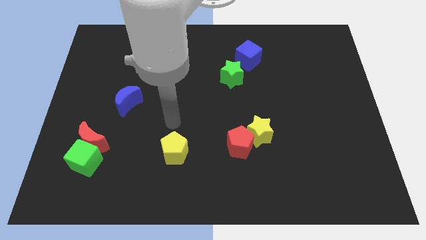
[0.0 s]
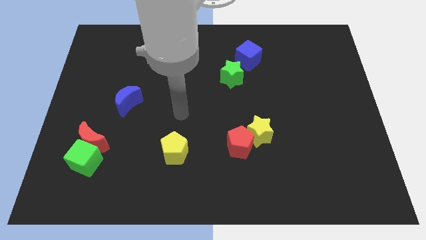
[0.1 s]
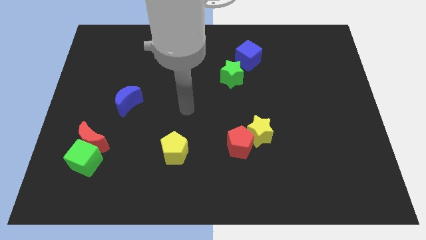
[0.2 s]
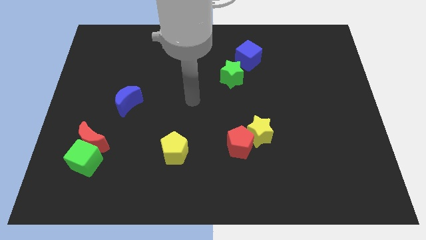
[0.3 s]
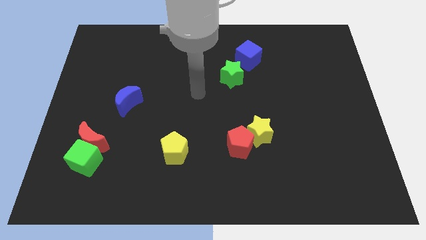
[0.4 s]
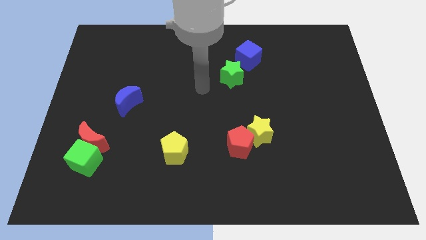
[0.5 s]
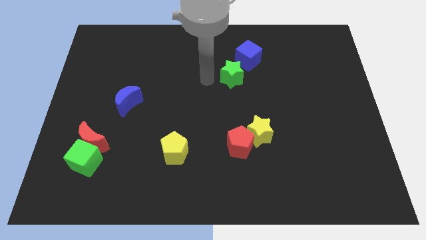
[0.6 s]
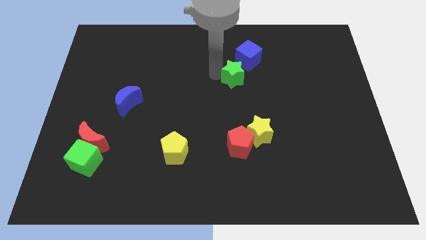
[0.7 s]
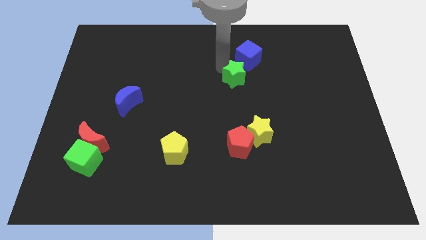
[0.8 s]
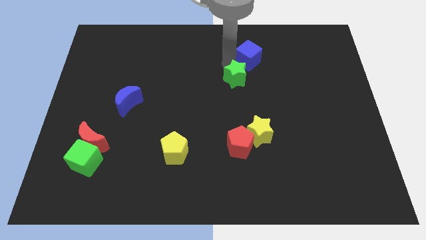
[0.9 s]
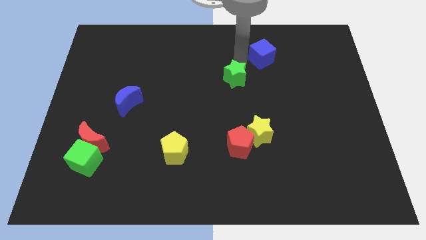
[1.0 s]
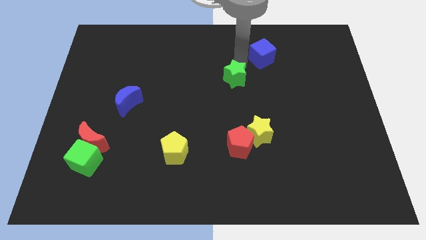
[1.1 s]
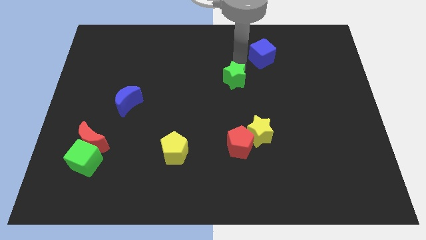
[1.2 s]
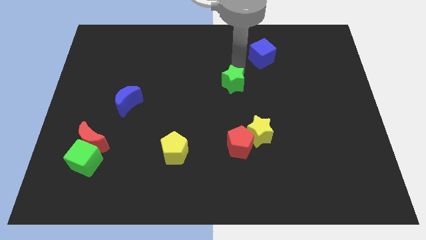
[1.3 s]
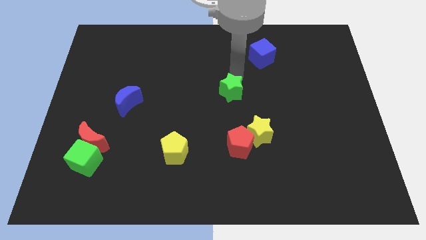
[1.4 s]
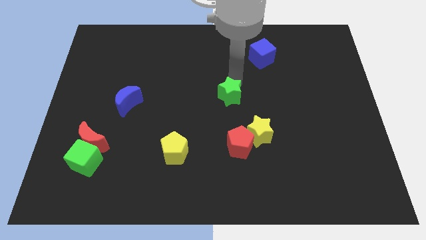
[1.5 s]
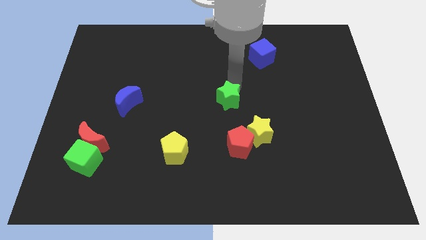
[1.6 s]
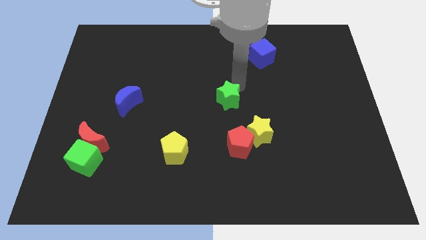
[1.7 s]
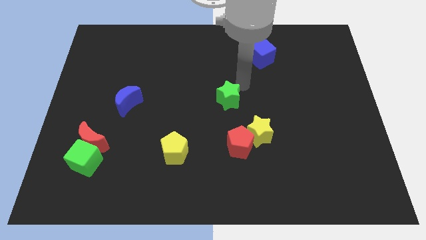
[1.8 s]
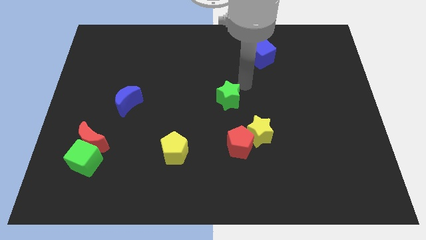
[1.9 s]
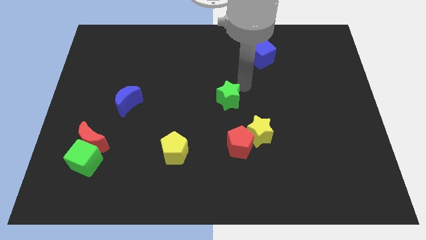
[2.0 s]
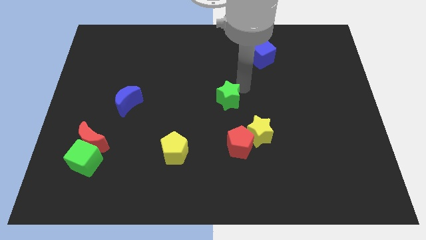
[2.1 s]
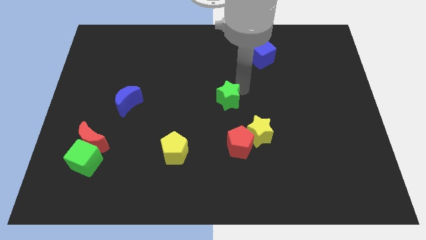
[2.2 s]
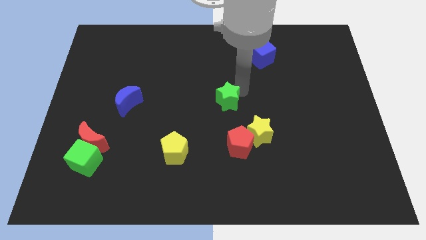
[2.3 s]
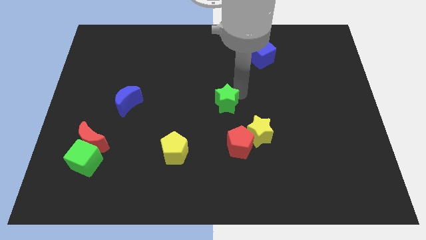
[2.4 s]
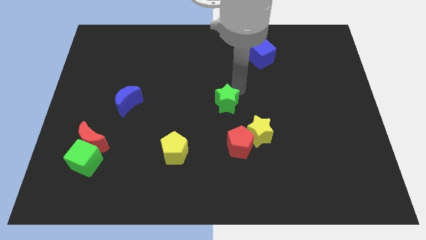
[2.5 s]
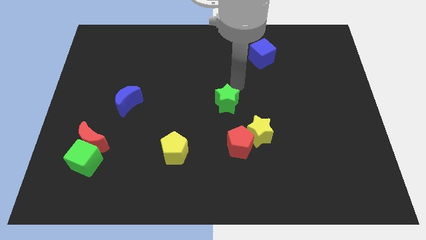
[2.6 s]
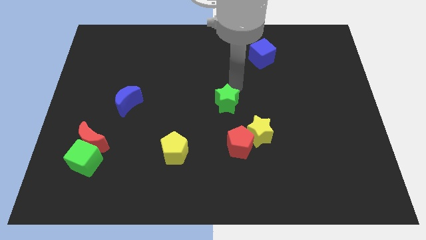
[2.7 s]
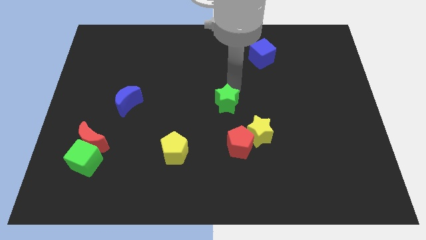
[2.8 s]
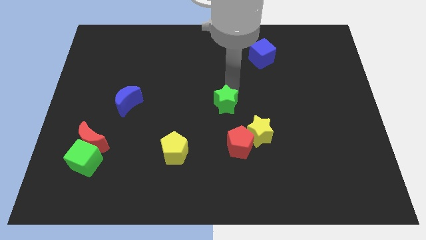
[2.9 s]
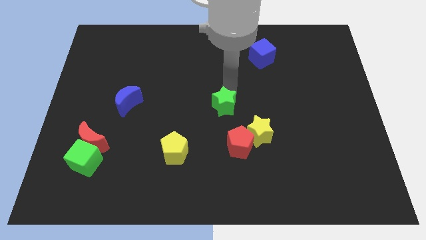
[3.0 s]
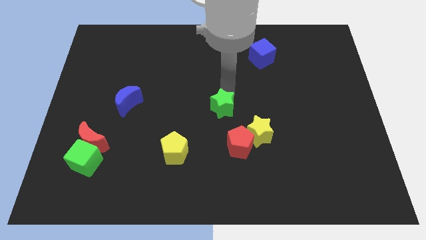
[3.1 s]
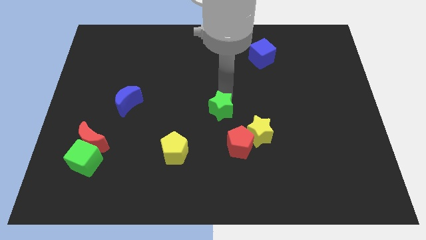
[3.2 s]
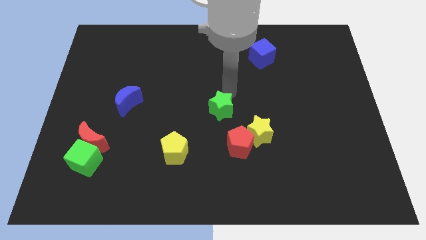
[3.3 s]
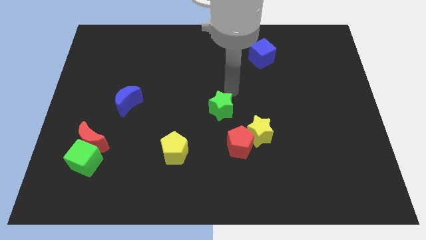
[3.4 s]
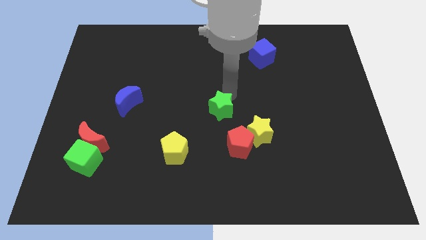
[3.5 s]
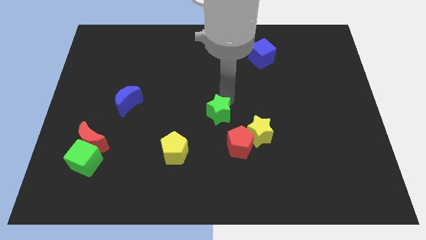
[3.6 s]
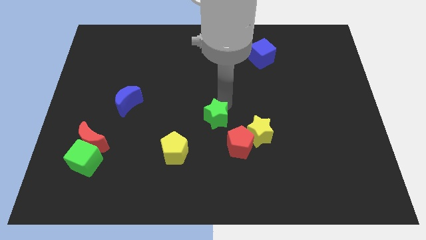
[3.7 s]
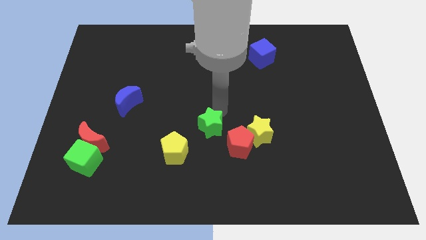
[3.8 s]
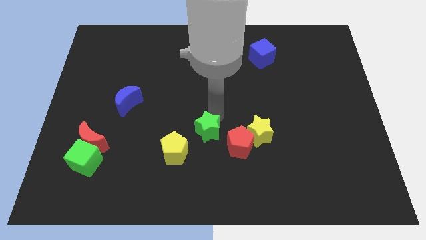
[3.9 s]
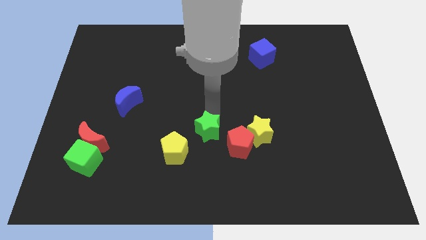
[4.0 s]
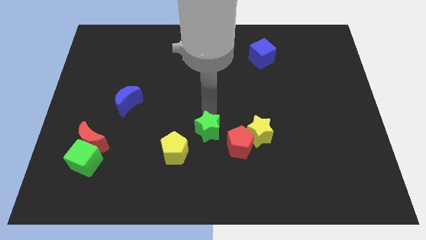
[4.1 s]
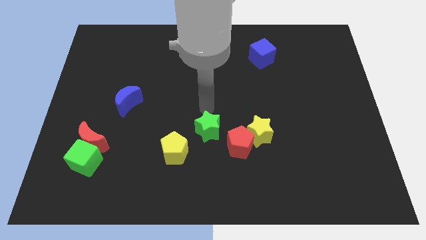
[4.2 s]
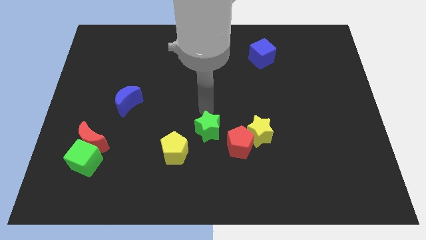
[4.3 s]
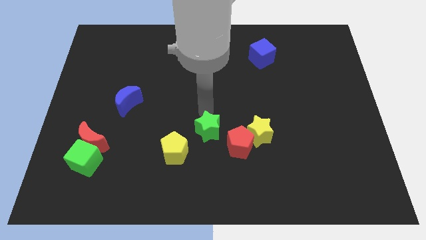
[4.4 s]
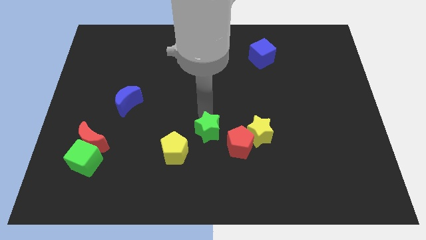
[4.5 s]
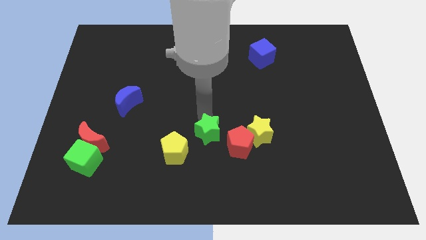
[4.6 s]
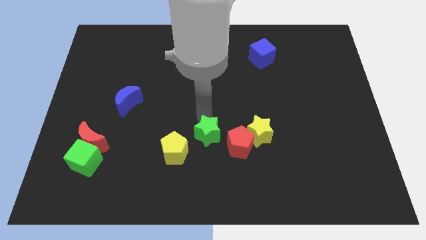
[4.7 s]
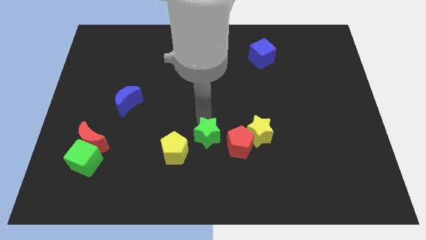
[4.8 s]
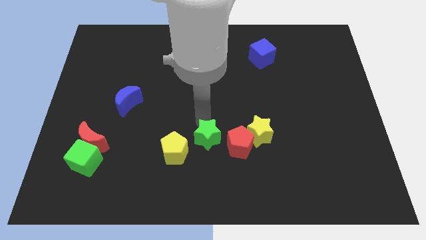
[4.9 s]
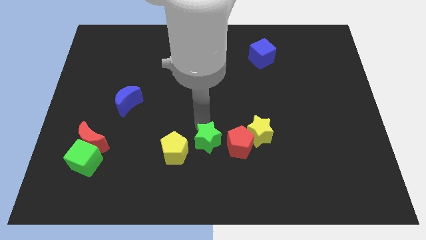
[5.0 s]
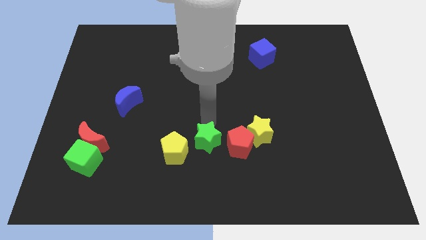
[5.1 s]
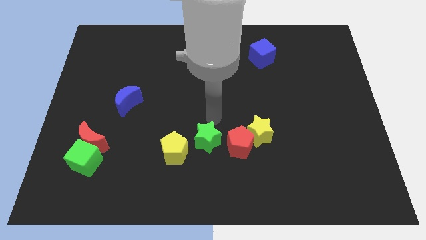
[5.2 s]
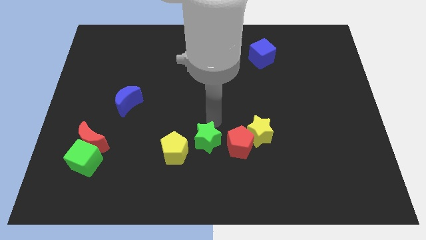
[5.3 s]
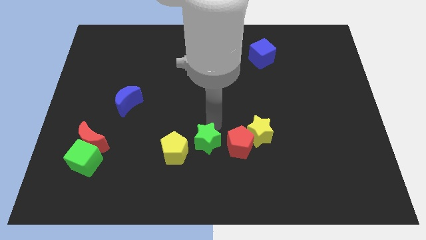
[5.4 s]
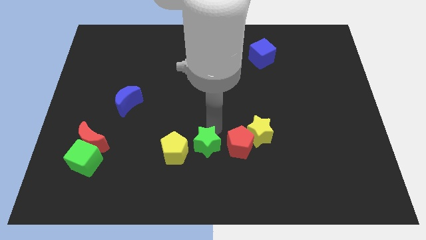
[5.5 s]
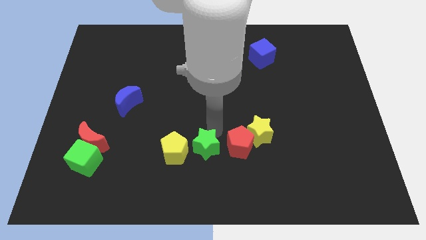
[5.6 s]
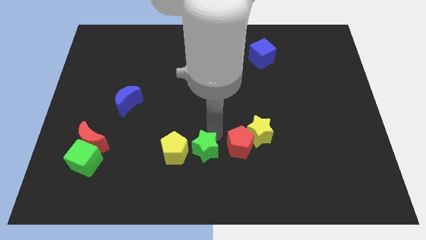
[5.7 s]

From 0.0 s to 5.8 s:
push the green star diagonally down and to the right of the yellow pentagon

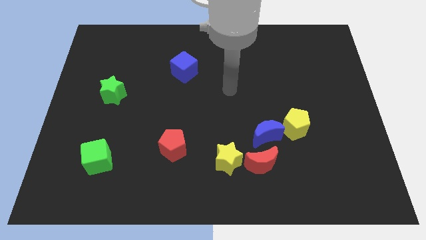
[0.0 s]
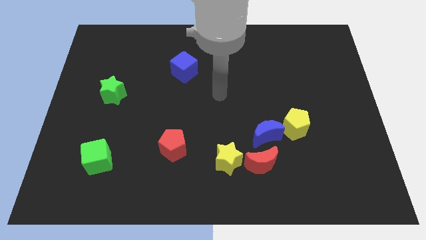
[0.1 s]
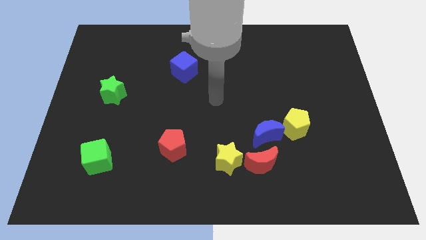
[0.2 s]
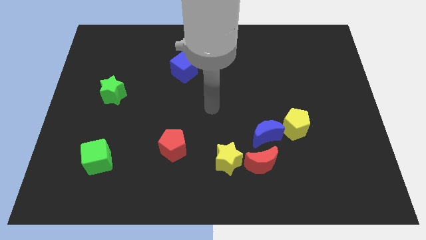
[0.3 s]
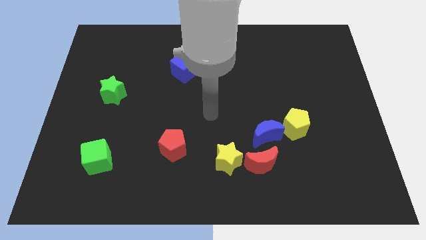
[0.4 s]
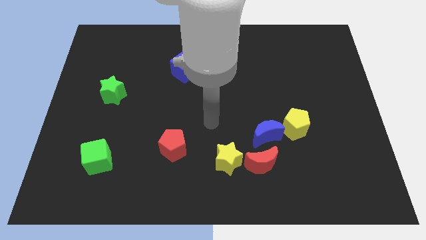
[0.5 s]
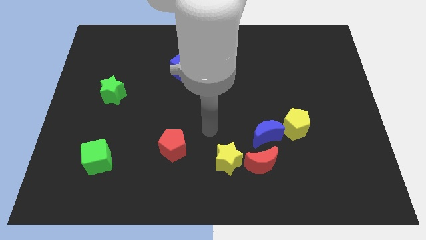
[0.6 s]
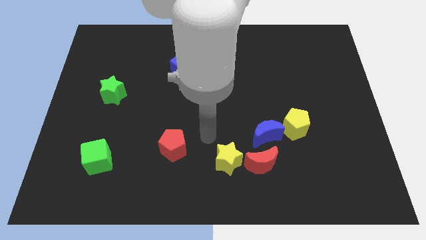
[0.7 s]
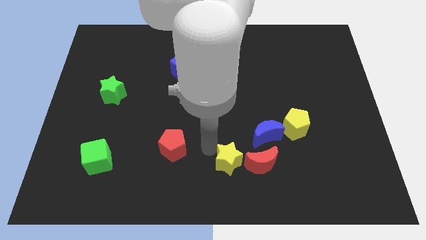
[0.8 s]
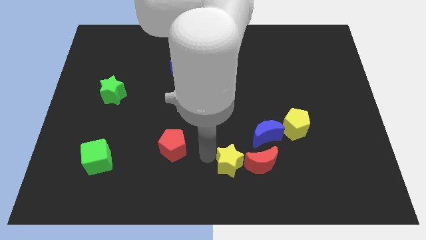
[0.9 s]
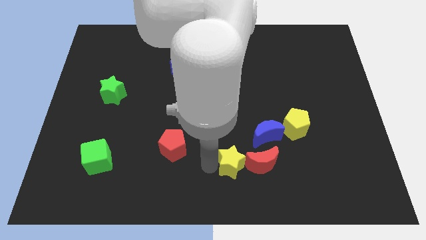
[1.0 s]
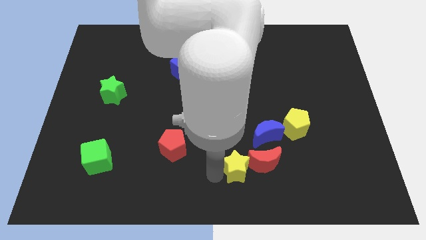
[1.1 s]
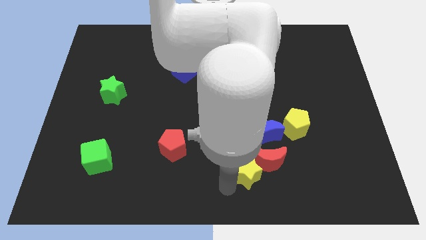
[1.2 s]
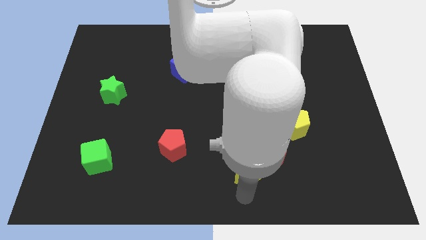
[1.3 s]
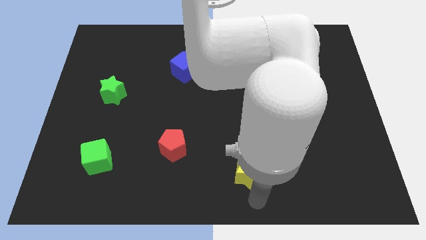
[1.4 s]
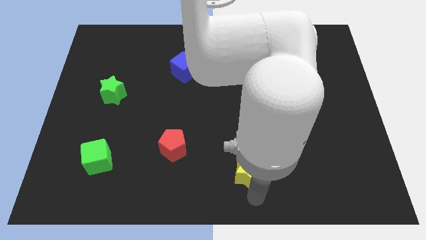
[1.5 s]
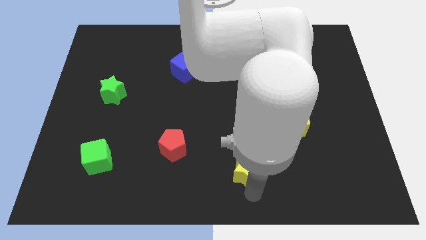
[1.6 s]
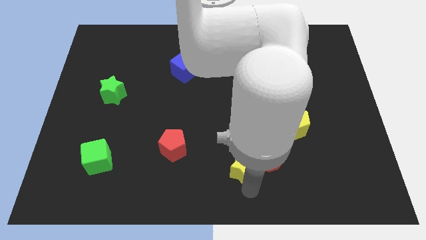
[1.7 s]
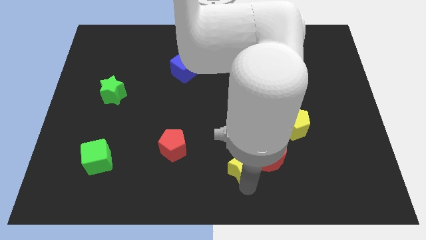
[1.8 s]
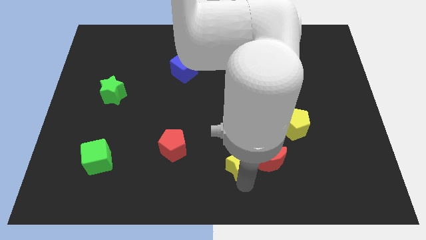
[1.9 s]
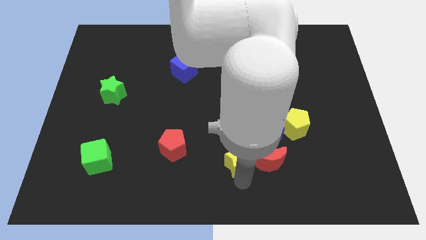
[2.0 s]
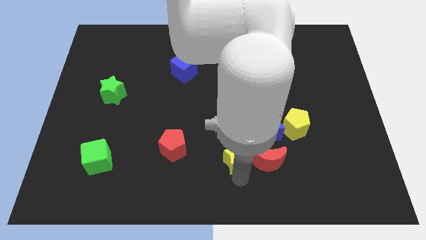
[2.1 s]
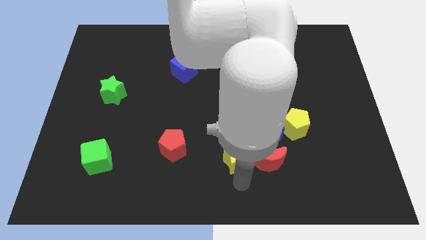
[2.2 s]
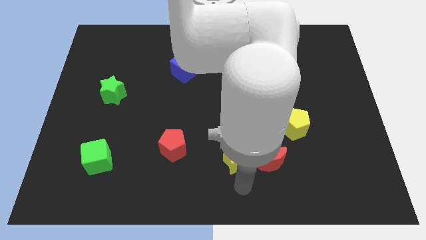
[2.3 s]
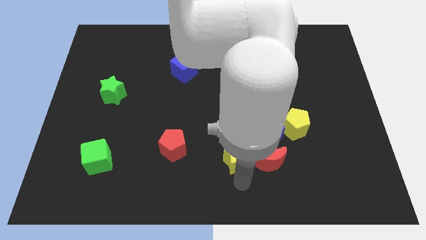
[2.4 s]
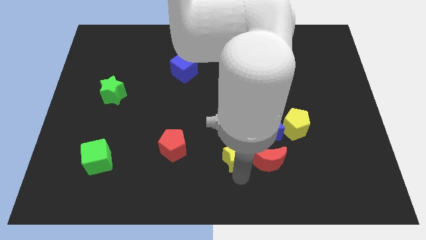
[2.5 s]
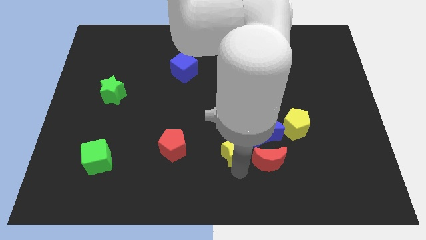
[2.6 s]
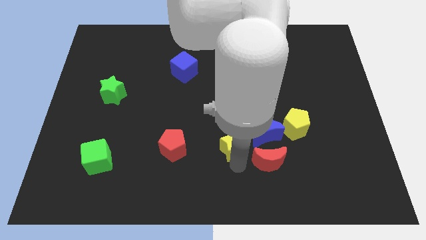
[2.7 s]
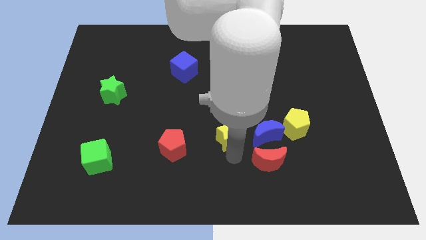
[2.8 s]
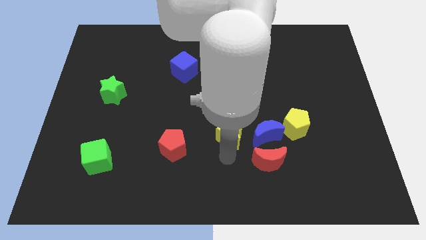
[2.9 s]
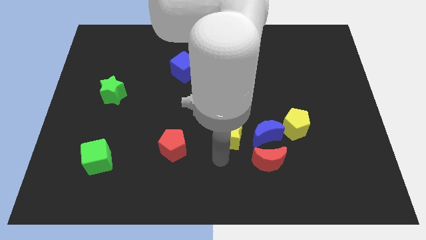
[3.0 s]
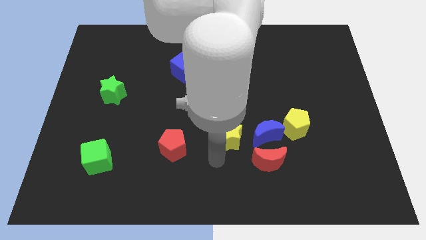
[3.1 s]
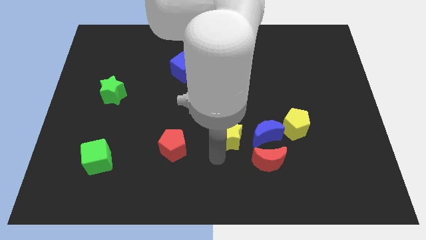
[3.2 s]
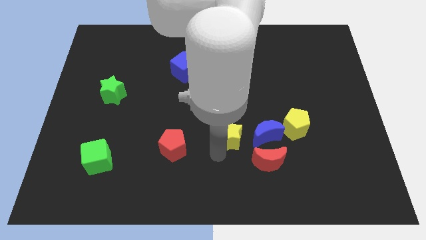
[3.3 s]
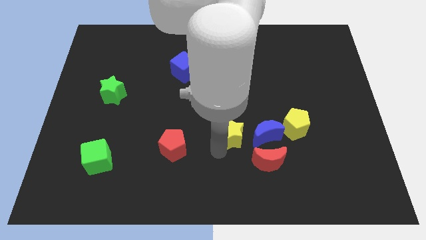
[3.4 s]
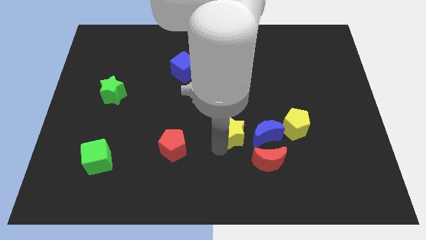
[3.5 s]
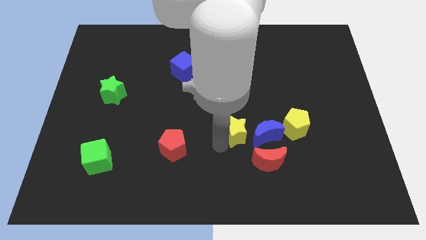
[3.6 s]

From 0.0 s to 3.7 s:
move the yellow star to the top left side of the blue moon
